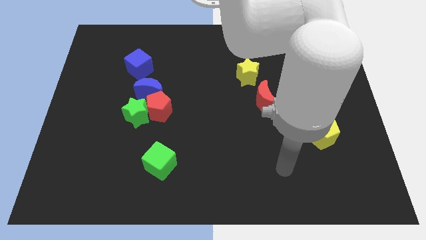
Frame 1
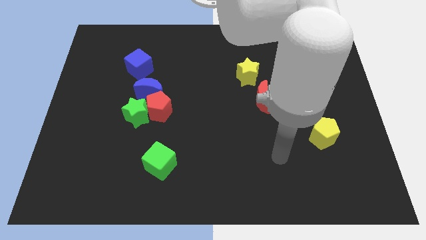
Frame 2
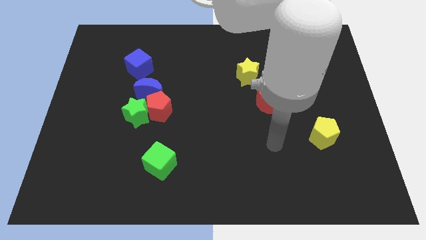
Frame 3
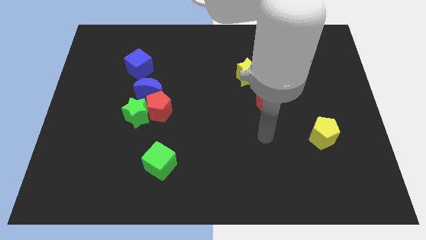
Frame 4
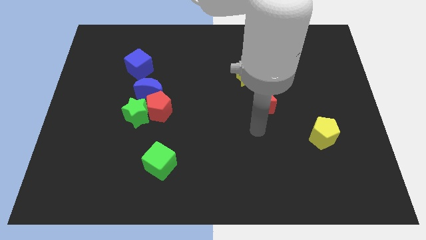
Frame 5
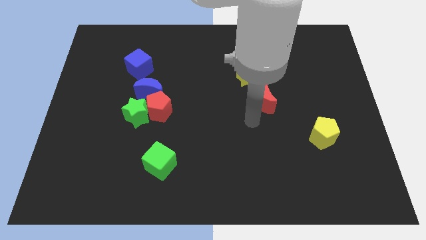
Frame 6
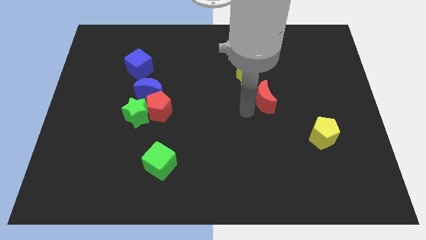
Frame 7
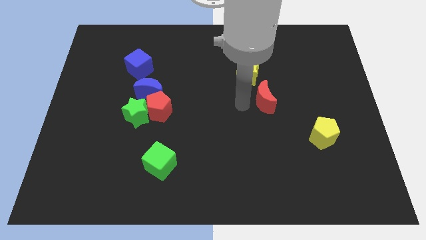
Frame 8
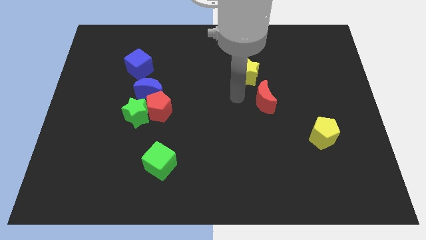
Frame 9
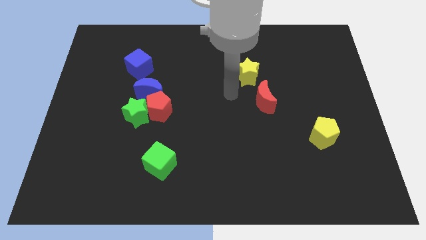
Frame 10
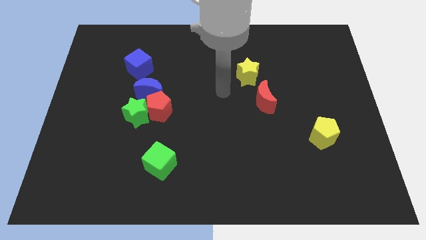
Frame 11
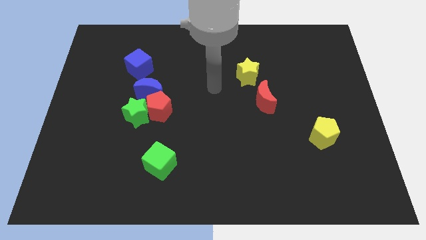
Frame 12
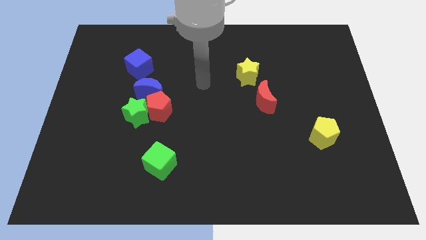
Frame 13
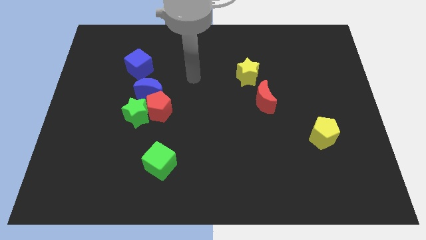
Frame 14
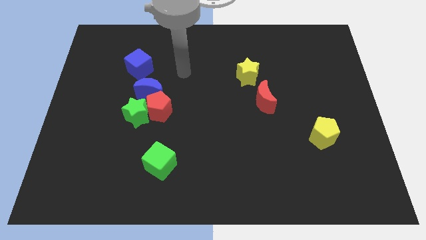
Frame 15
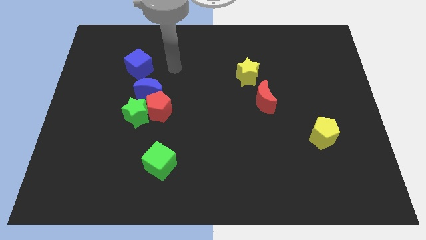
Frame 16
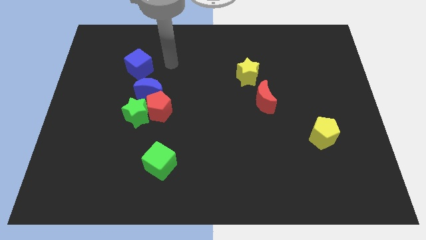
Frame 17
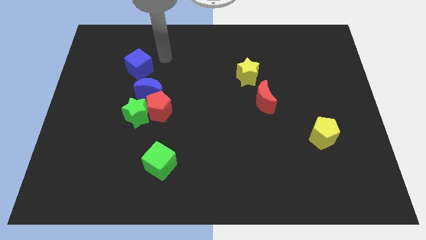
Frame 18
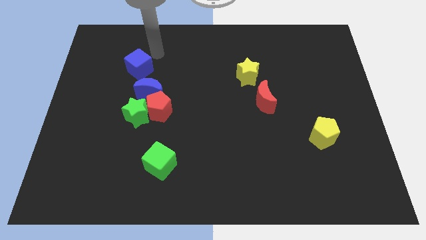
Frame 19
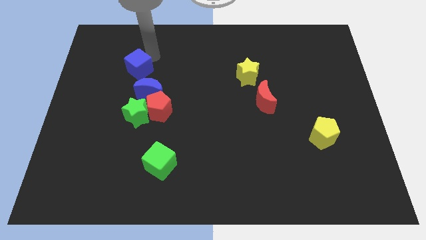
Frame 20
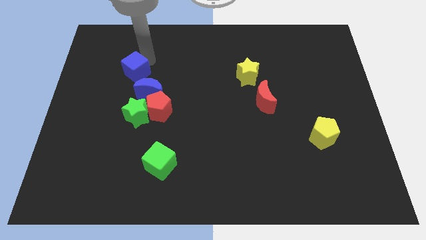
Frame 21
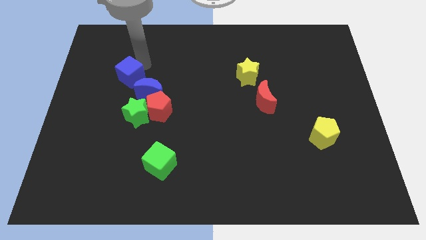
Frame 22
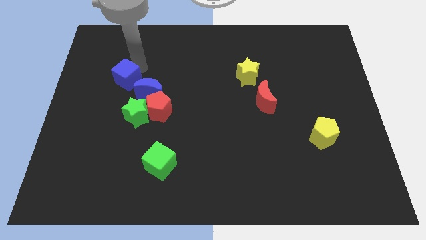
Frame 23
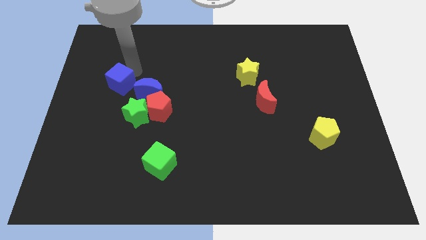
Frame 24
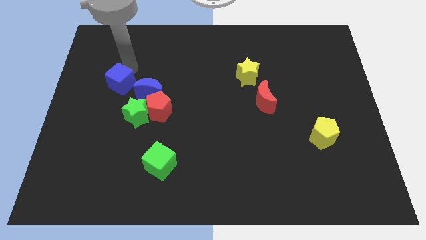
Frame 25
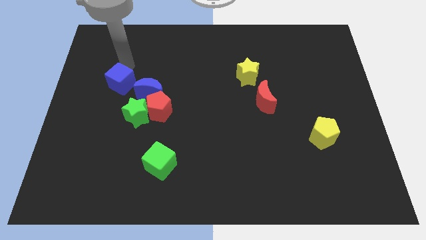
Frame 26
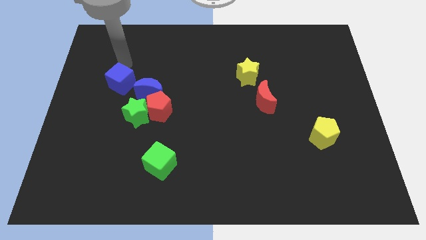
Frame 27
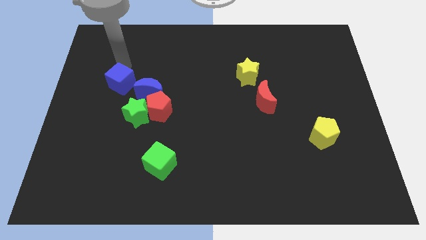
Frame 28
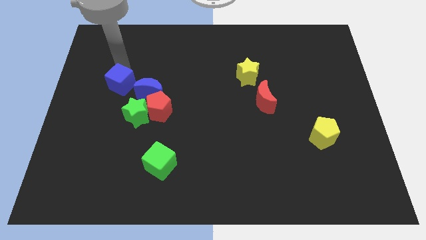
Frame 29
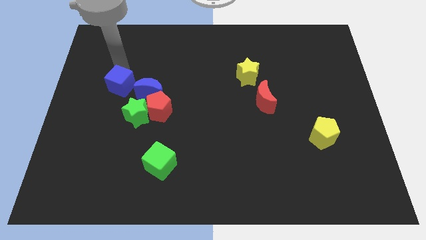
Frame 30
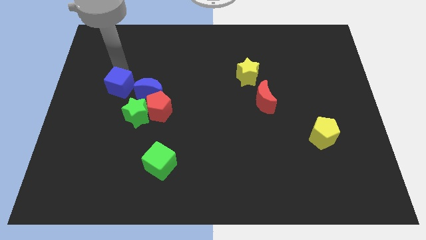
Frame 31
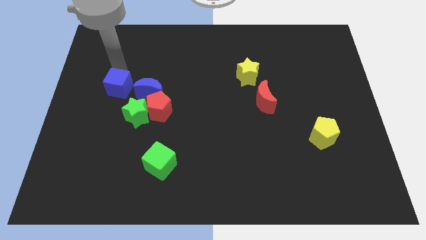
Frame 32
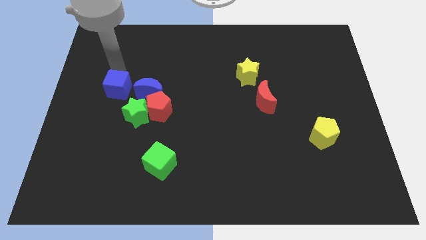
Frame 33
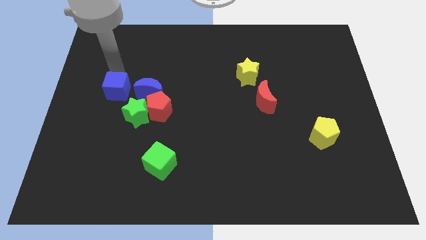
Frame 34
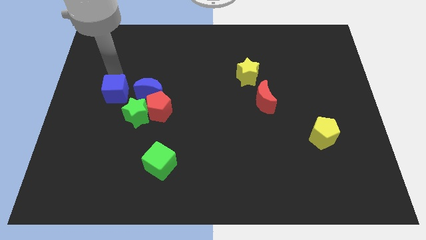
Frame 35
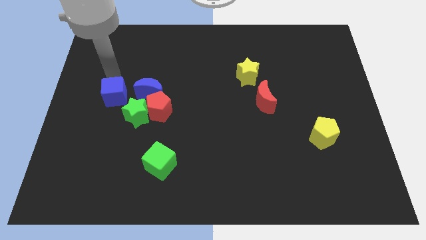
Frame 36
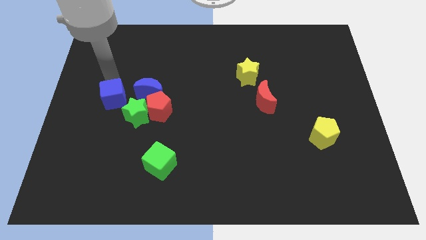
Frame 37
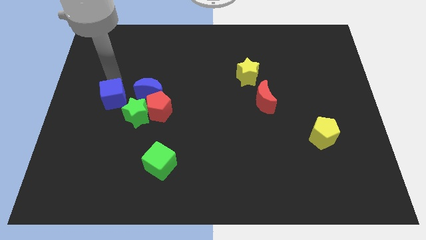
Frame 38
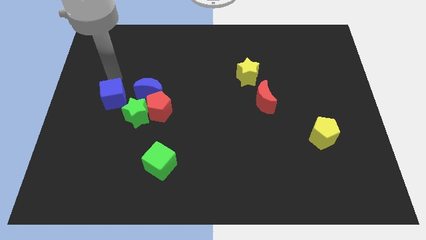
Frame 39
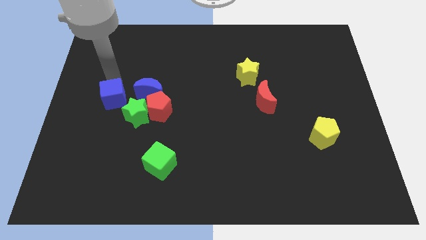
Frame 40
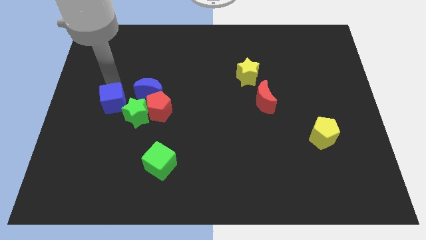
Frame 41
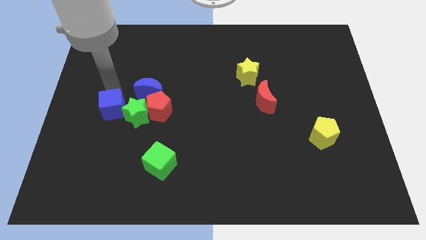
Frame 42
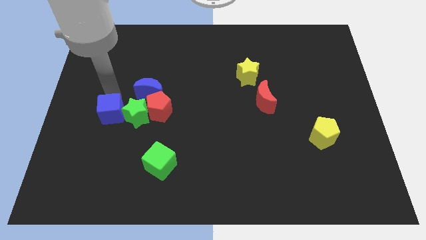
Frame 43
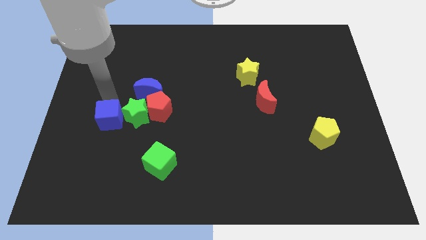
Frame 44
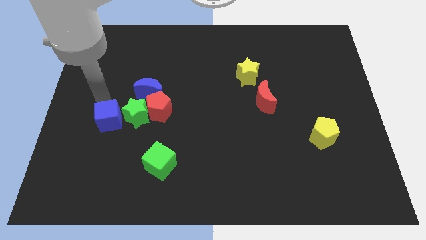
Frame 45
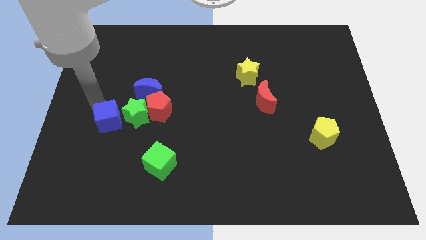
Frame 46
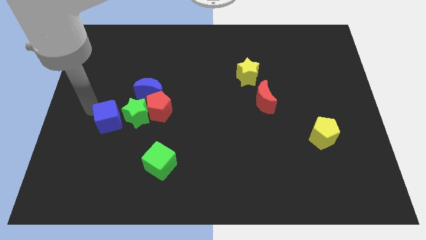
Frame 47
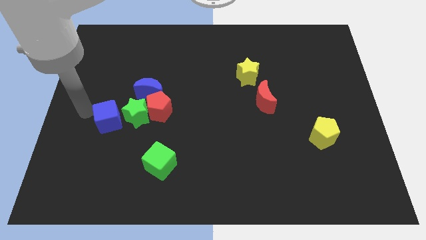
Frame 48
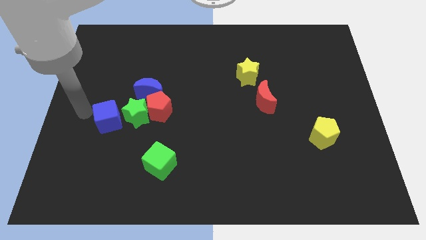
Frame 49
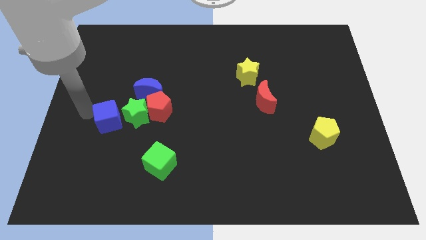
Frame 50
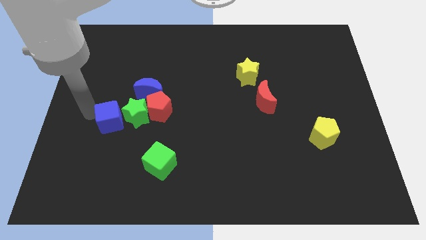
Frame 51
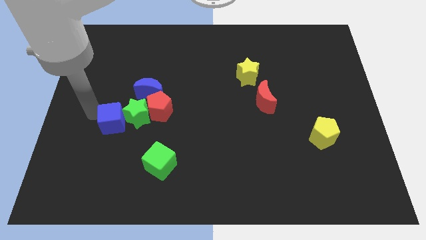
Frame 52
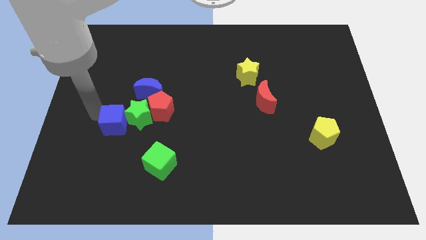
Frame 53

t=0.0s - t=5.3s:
slide the blue cube to the bottom left of the red pentagon

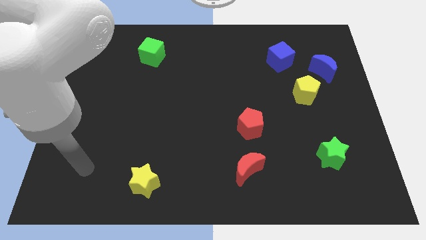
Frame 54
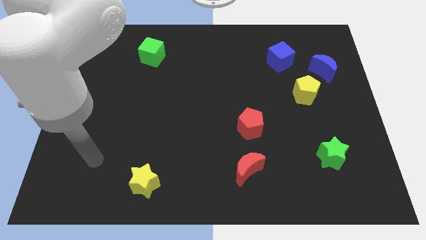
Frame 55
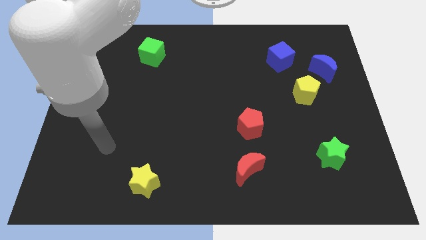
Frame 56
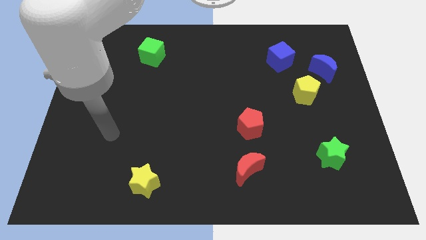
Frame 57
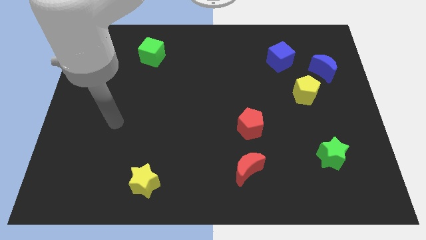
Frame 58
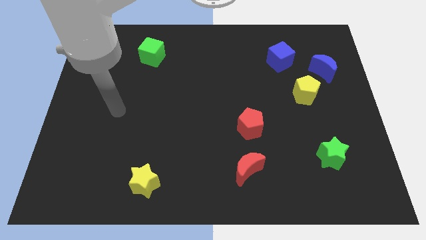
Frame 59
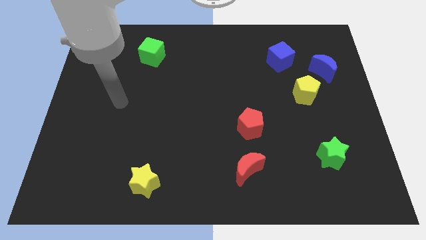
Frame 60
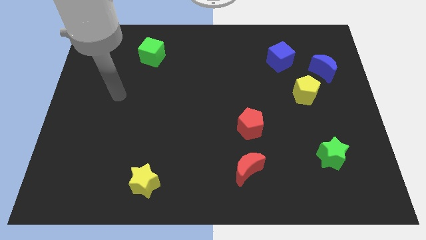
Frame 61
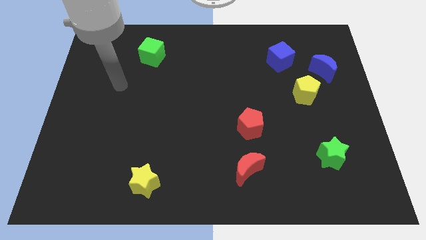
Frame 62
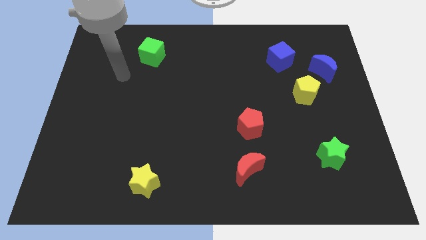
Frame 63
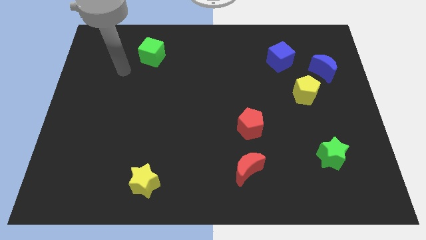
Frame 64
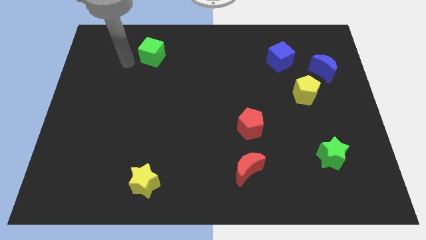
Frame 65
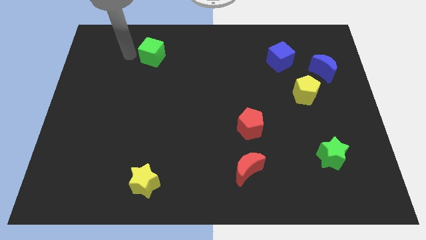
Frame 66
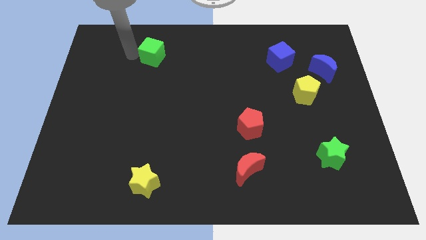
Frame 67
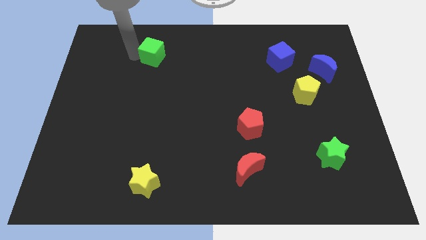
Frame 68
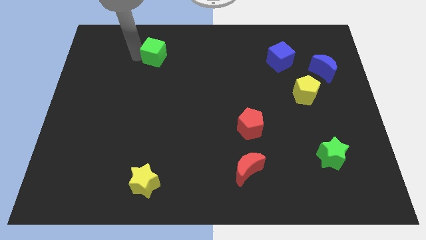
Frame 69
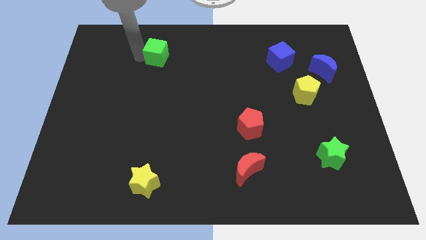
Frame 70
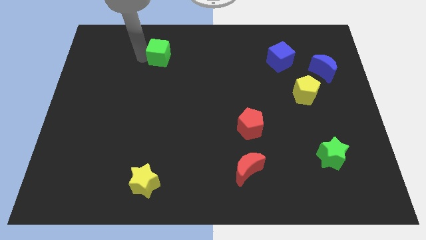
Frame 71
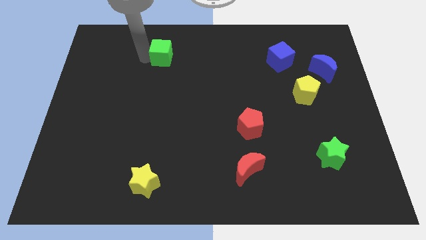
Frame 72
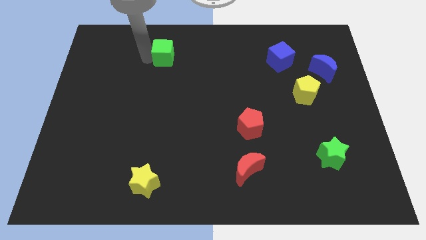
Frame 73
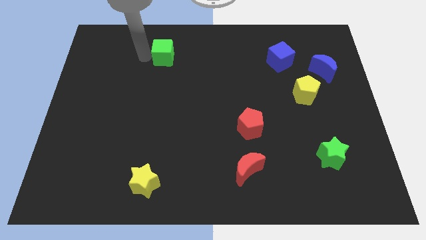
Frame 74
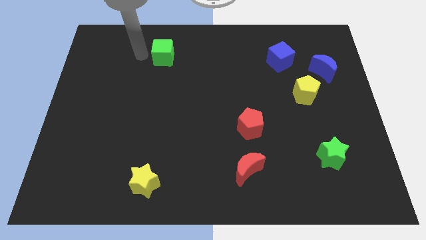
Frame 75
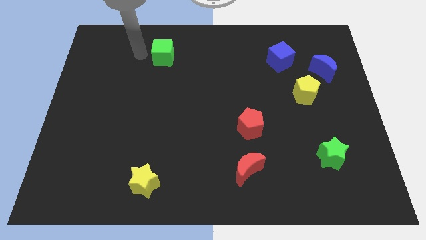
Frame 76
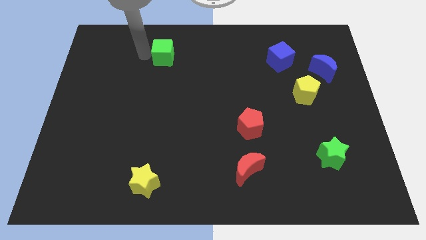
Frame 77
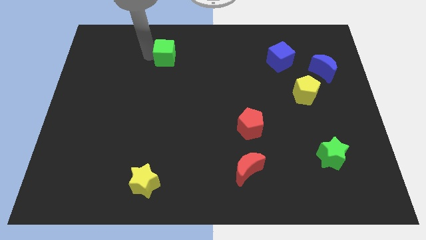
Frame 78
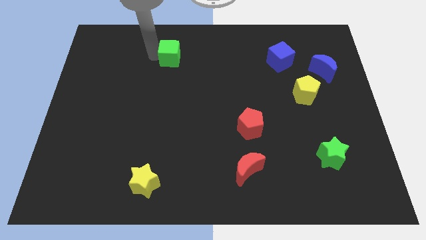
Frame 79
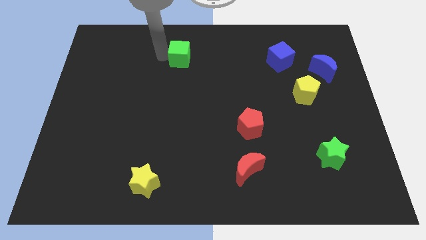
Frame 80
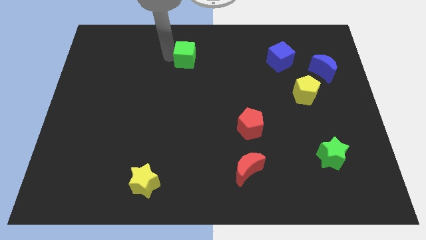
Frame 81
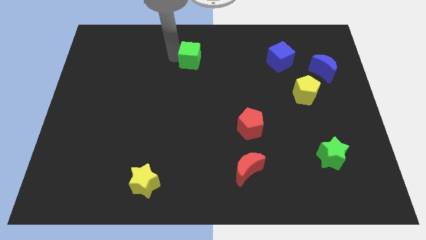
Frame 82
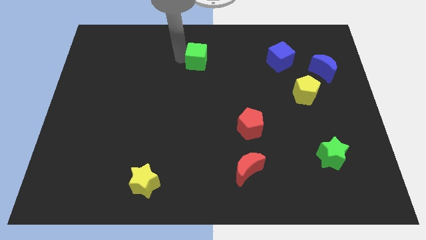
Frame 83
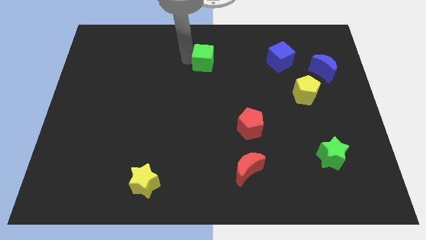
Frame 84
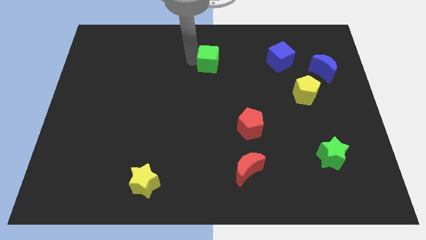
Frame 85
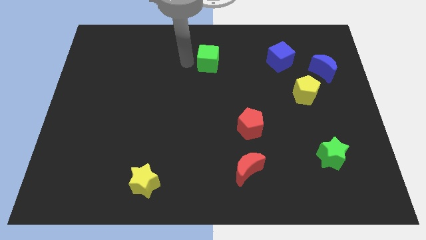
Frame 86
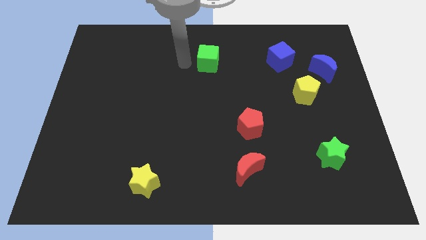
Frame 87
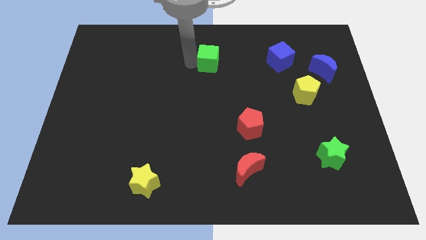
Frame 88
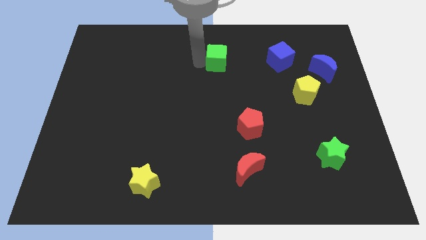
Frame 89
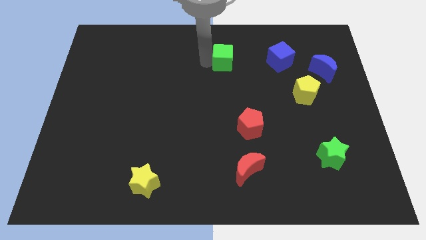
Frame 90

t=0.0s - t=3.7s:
slide the green cube to the left side of the blue cube
